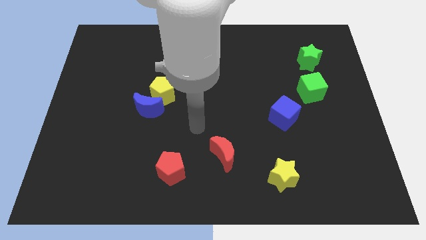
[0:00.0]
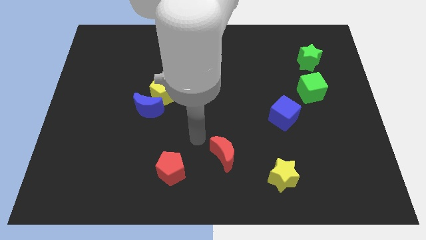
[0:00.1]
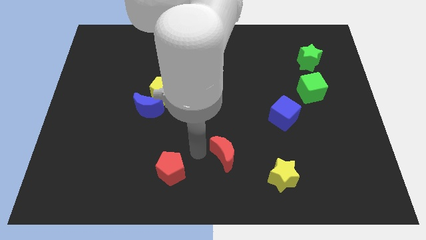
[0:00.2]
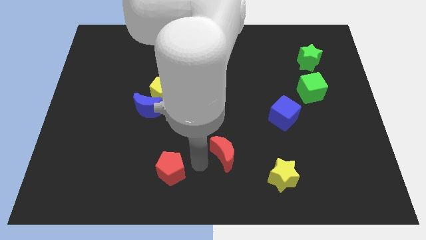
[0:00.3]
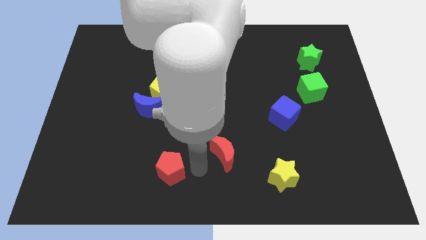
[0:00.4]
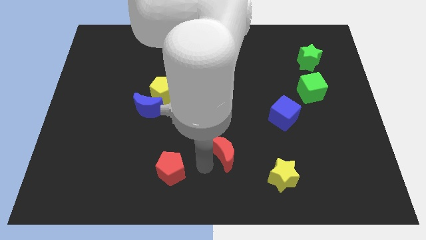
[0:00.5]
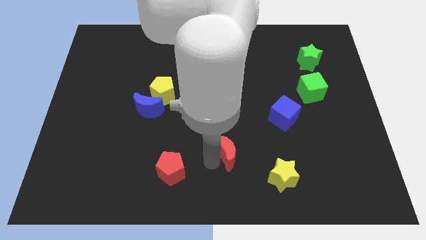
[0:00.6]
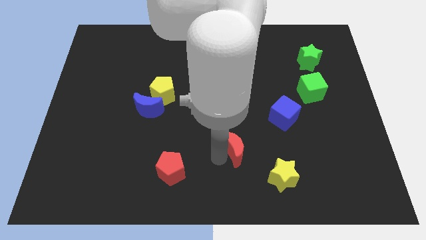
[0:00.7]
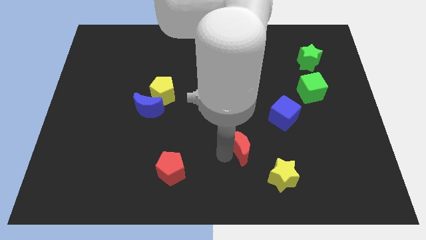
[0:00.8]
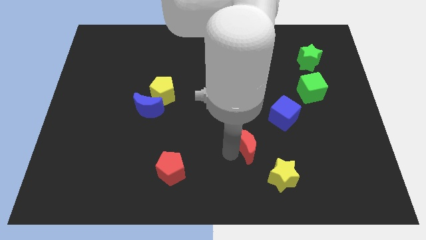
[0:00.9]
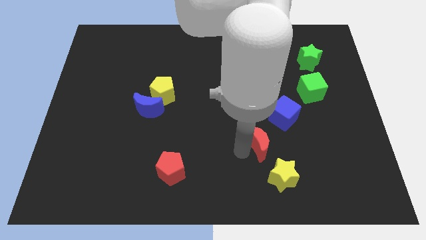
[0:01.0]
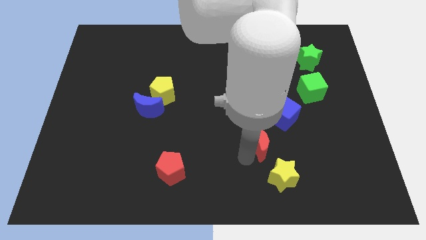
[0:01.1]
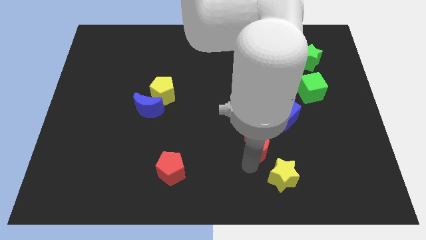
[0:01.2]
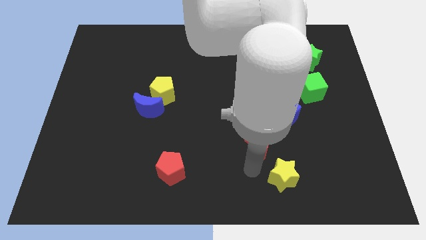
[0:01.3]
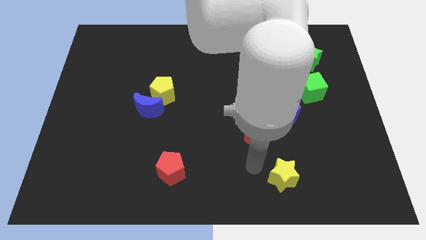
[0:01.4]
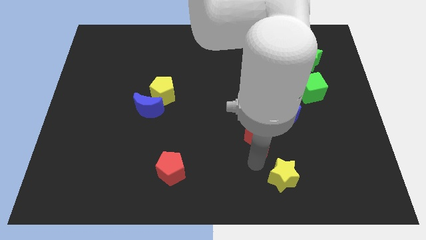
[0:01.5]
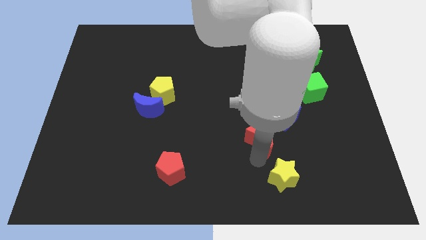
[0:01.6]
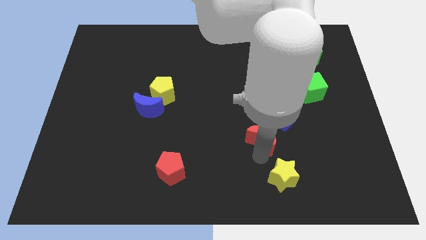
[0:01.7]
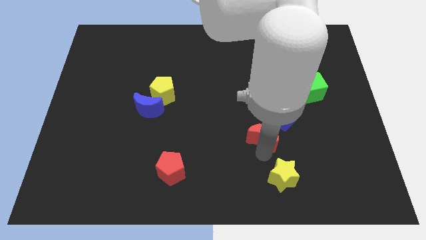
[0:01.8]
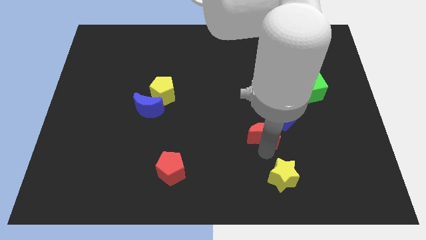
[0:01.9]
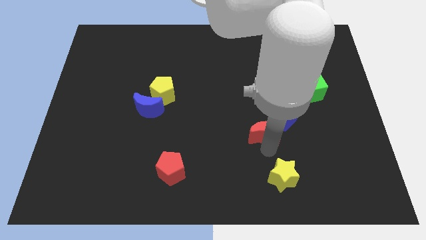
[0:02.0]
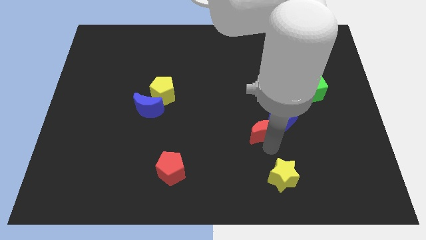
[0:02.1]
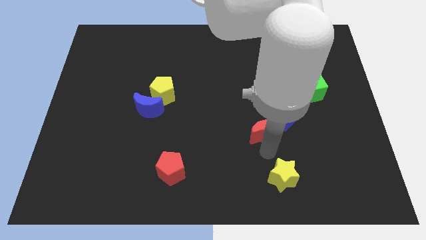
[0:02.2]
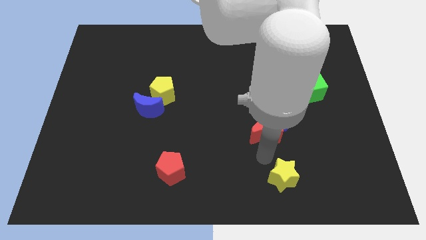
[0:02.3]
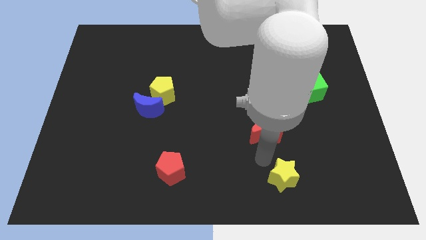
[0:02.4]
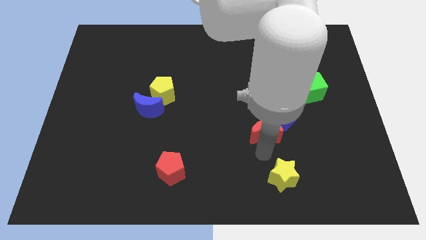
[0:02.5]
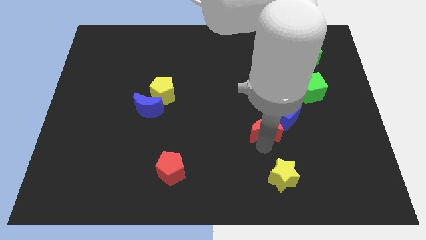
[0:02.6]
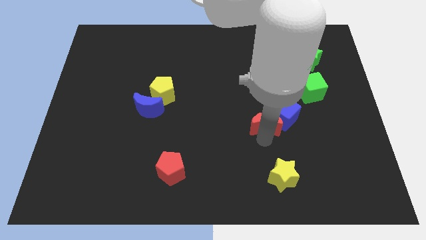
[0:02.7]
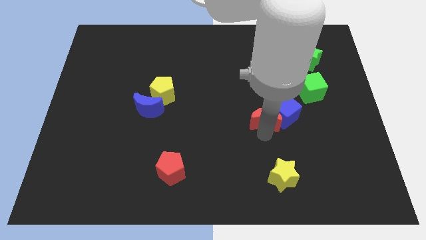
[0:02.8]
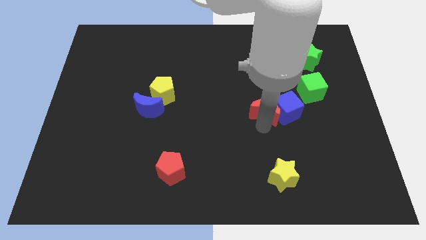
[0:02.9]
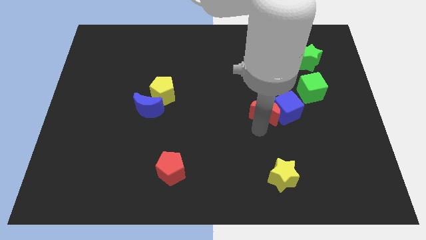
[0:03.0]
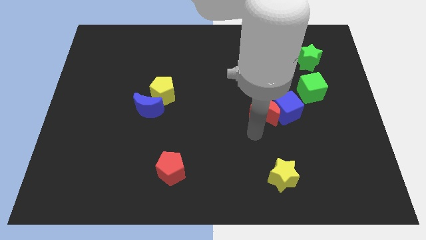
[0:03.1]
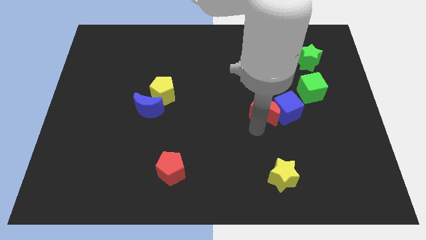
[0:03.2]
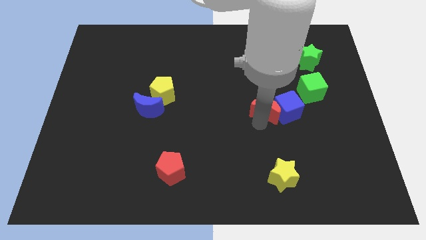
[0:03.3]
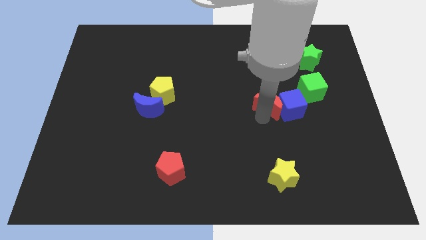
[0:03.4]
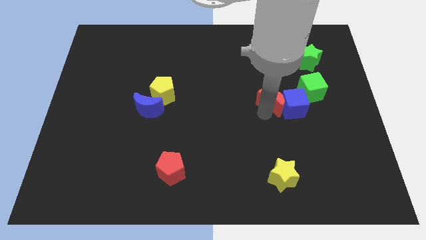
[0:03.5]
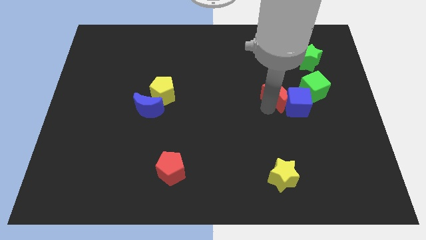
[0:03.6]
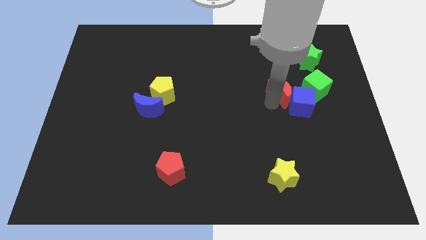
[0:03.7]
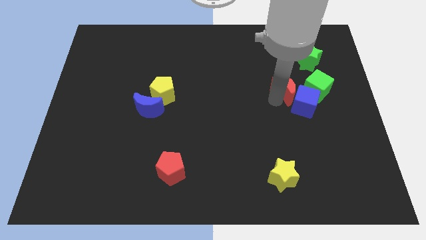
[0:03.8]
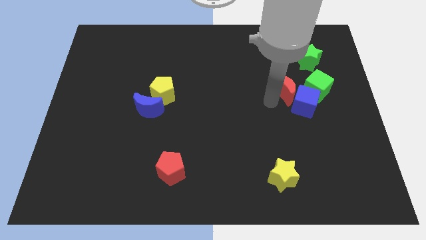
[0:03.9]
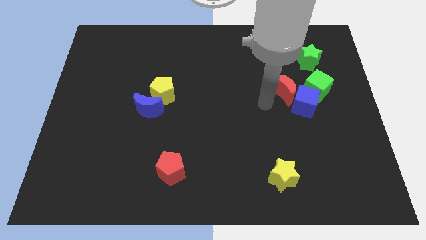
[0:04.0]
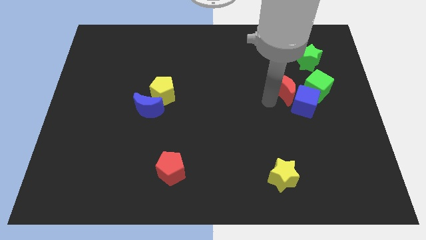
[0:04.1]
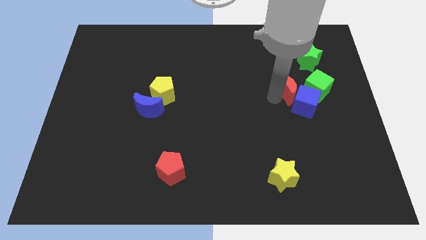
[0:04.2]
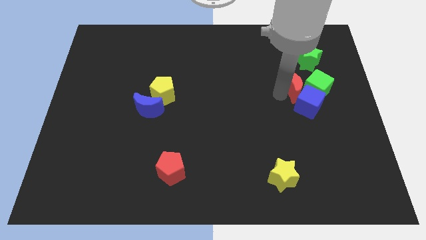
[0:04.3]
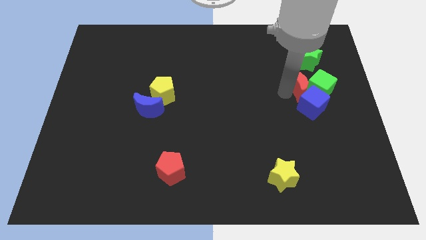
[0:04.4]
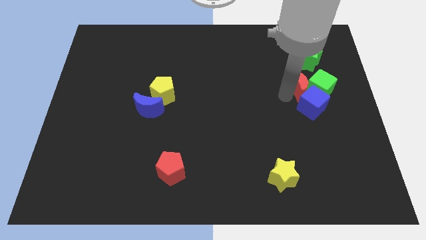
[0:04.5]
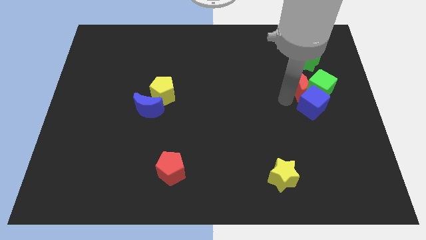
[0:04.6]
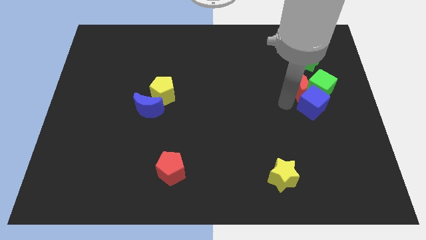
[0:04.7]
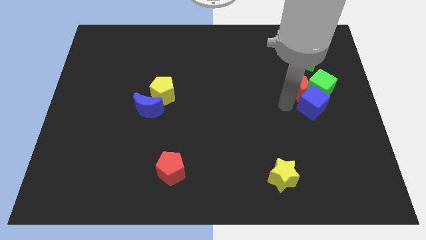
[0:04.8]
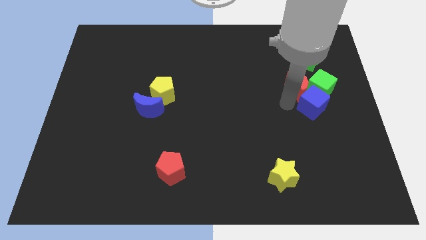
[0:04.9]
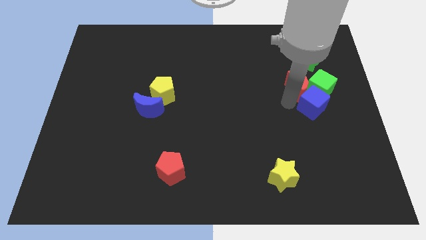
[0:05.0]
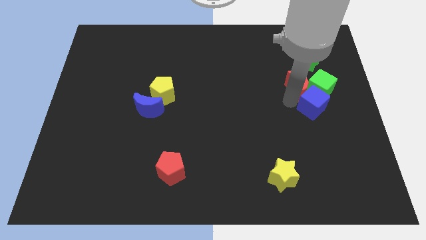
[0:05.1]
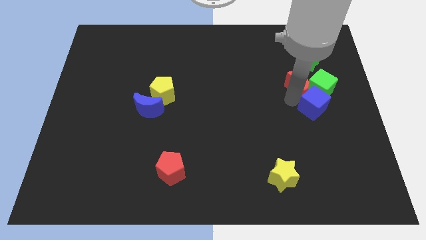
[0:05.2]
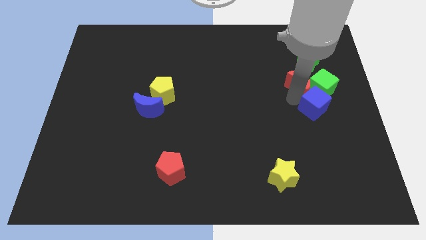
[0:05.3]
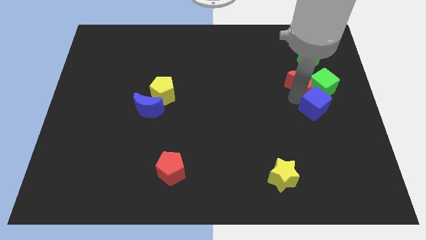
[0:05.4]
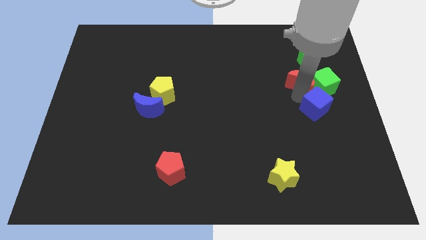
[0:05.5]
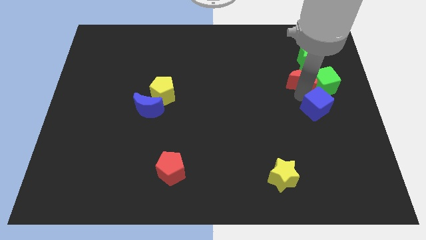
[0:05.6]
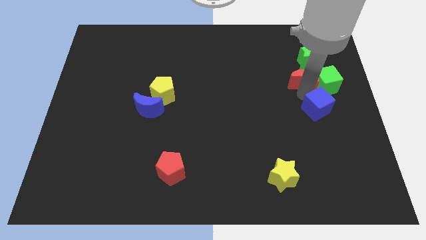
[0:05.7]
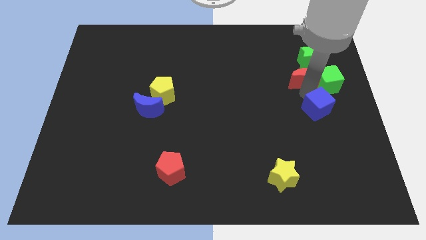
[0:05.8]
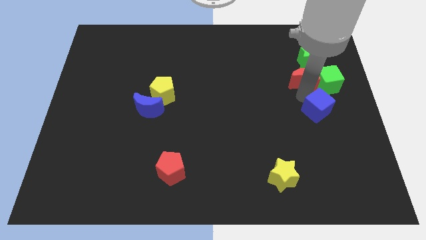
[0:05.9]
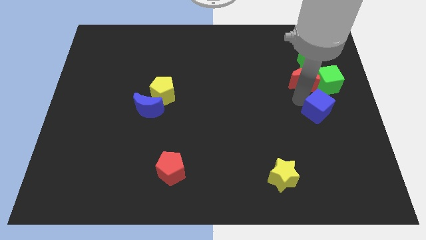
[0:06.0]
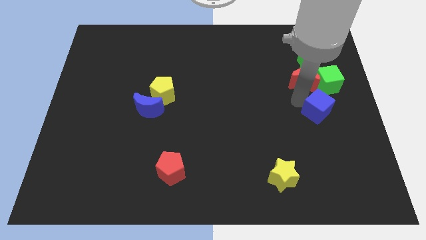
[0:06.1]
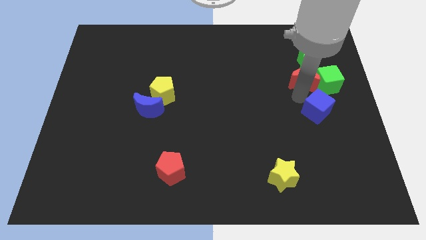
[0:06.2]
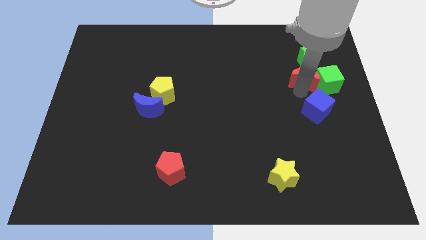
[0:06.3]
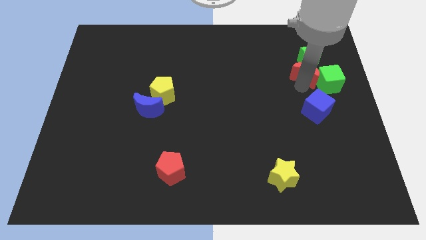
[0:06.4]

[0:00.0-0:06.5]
push the red moon towards the green star

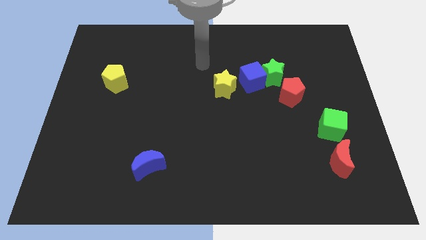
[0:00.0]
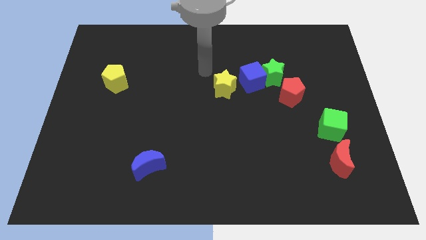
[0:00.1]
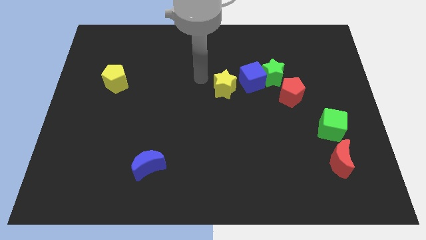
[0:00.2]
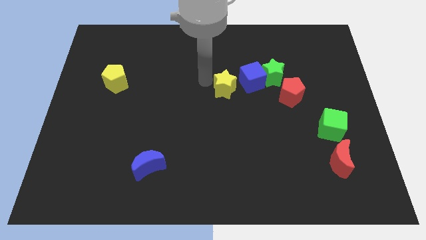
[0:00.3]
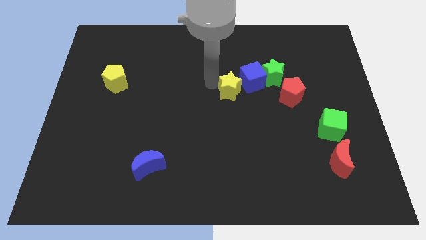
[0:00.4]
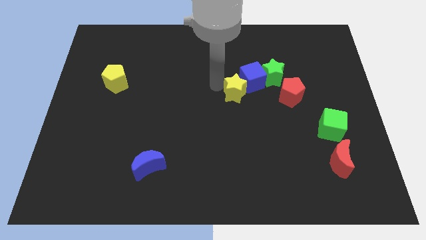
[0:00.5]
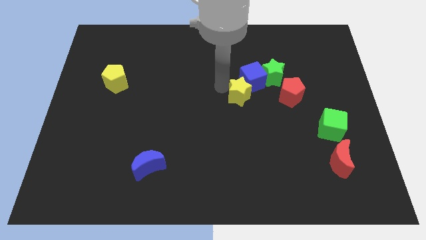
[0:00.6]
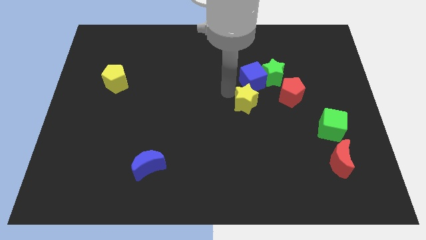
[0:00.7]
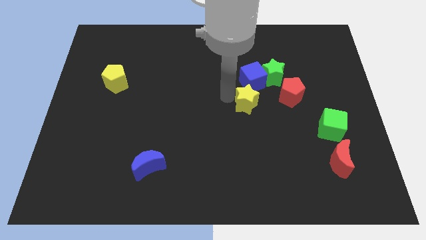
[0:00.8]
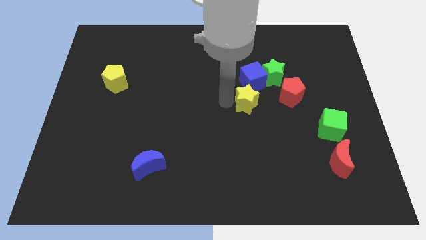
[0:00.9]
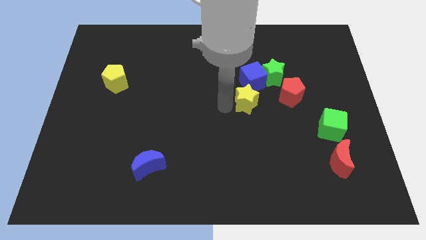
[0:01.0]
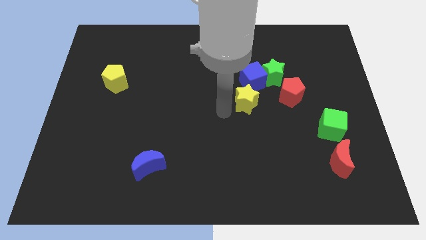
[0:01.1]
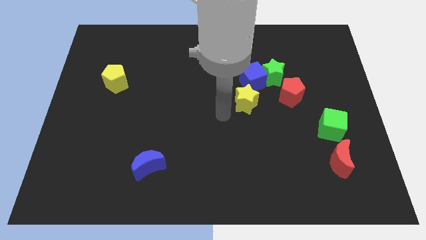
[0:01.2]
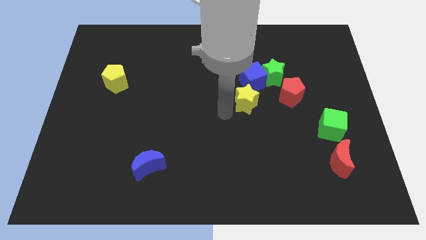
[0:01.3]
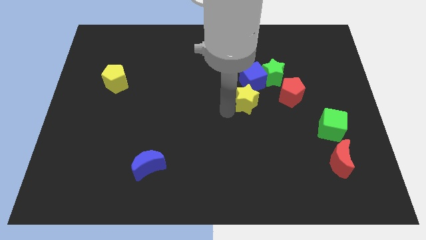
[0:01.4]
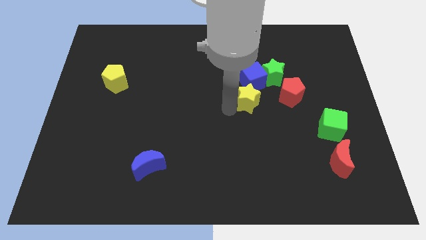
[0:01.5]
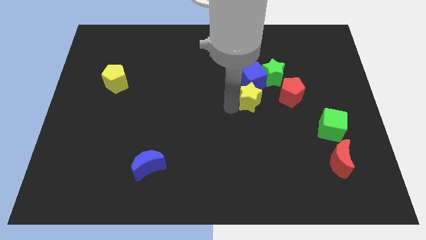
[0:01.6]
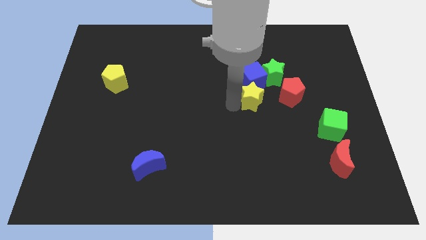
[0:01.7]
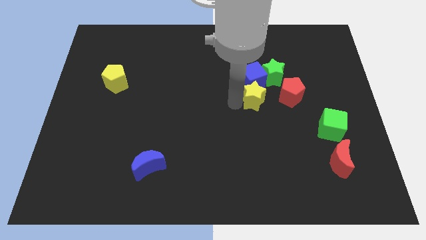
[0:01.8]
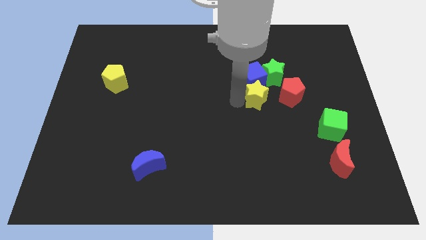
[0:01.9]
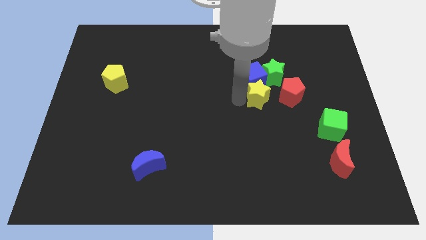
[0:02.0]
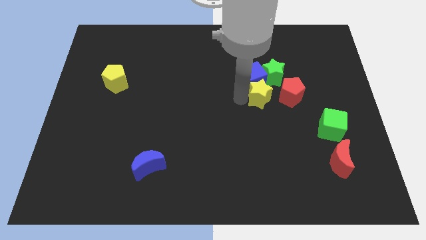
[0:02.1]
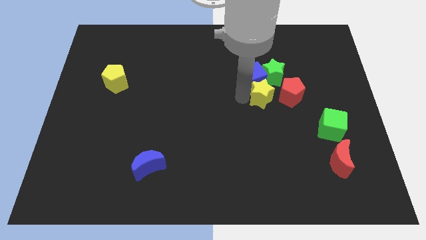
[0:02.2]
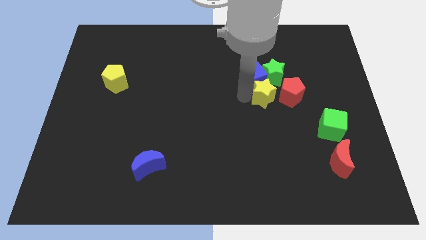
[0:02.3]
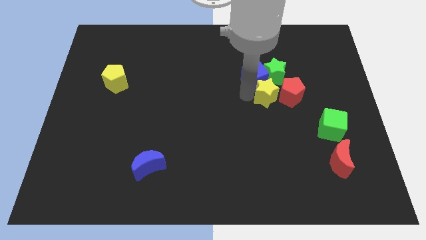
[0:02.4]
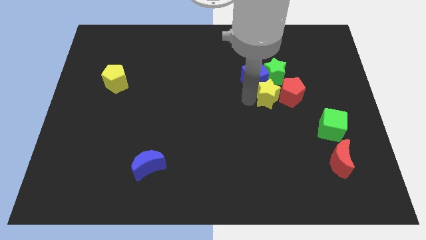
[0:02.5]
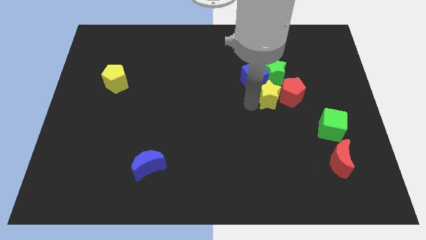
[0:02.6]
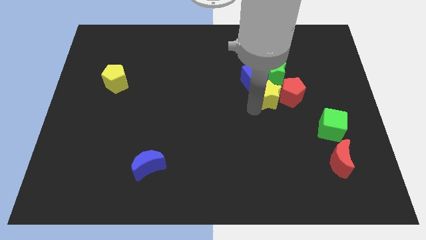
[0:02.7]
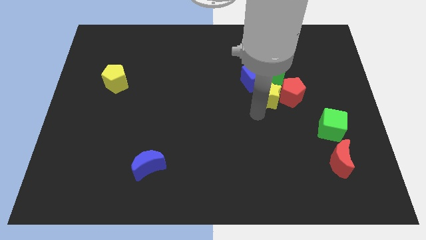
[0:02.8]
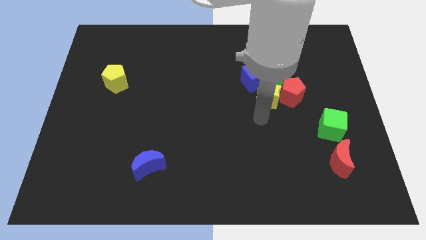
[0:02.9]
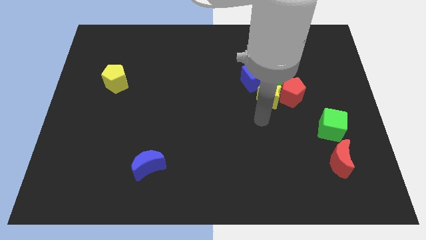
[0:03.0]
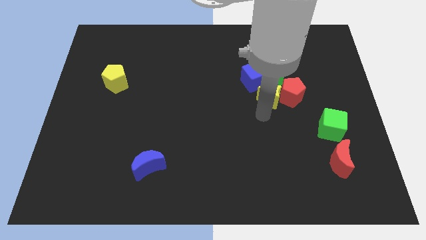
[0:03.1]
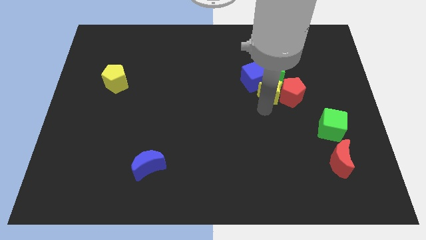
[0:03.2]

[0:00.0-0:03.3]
put the yellow star next to the green star
